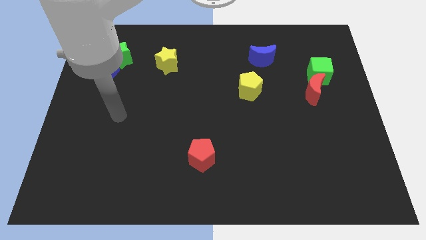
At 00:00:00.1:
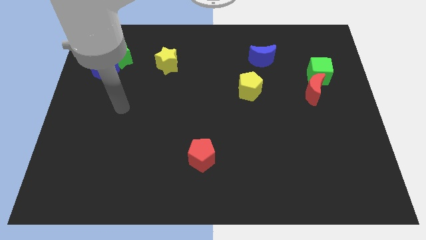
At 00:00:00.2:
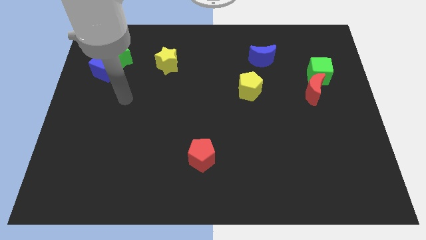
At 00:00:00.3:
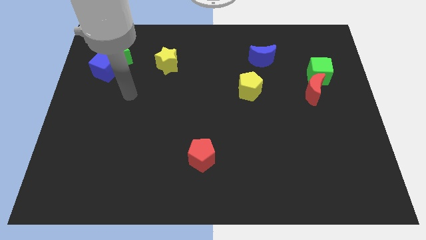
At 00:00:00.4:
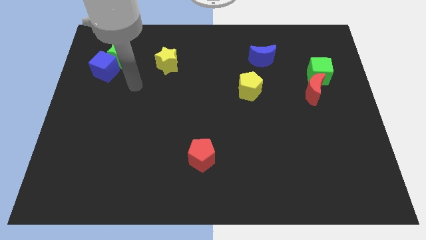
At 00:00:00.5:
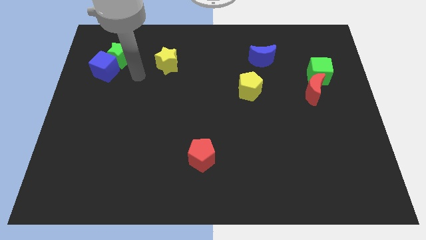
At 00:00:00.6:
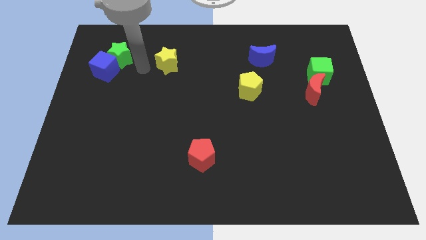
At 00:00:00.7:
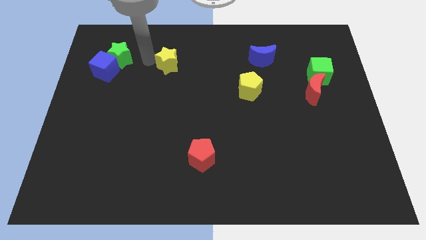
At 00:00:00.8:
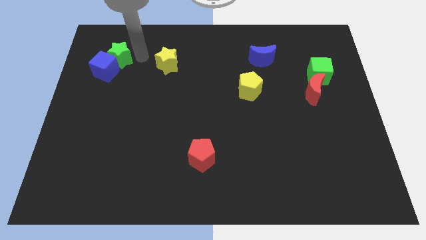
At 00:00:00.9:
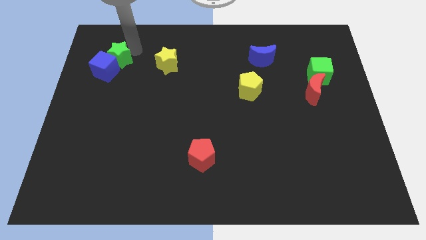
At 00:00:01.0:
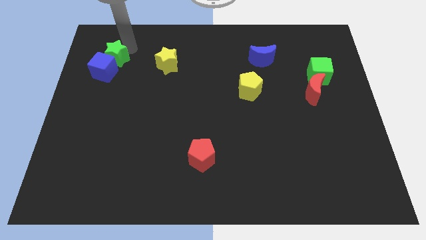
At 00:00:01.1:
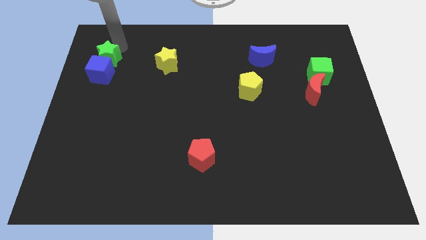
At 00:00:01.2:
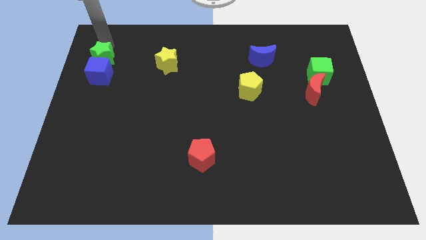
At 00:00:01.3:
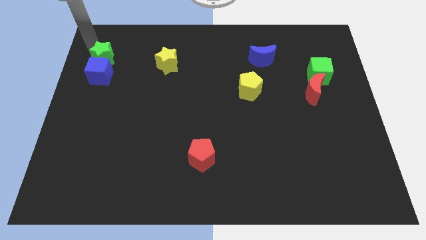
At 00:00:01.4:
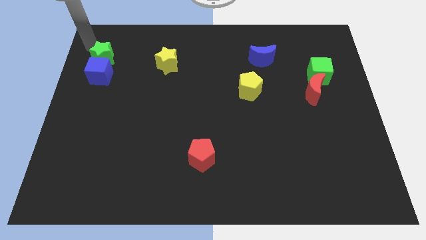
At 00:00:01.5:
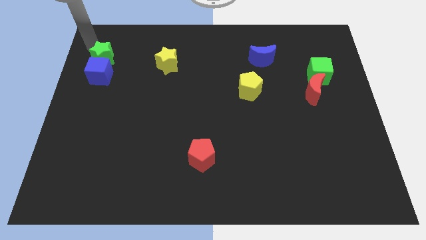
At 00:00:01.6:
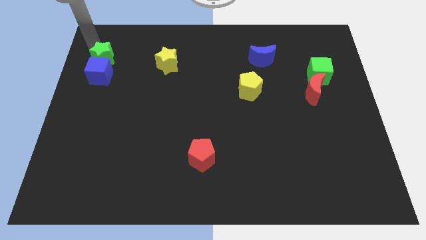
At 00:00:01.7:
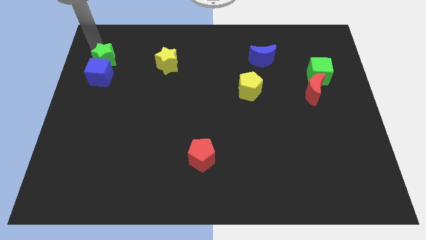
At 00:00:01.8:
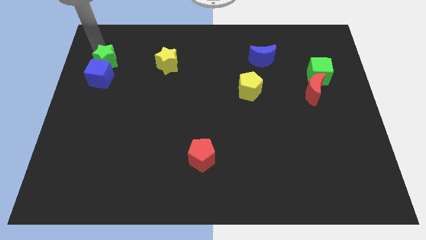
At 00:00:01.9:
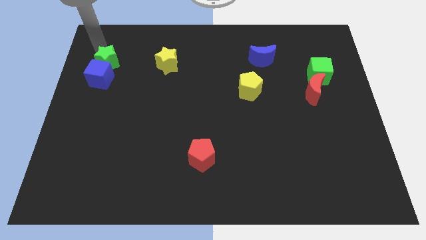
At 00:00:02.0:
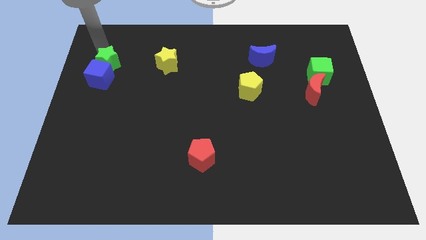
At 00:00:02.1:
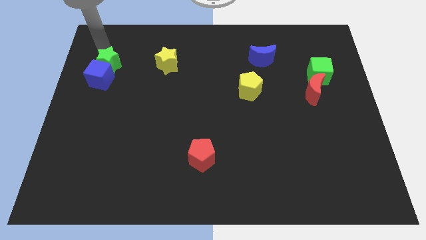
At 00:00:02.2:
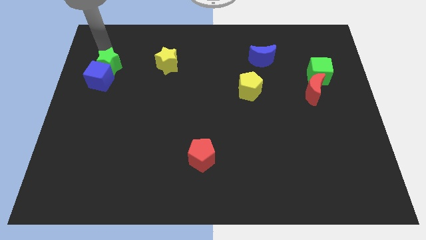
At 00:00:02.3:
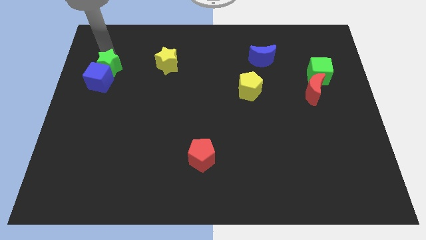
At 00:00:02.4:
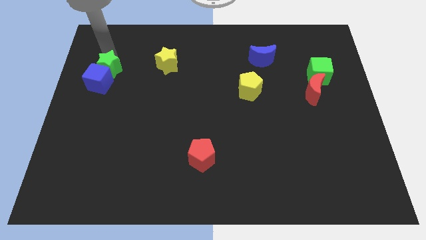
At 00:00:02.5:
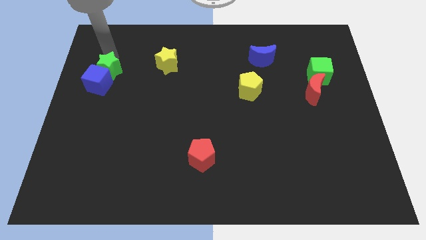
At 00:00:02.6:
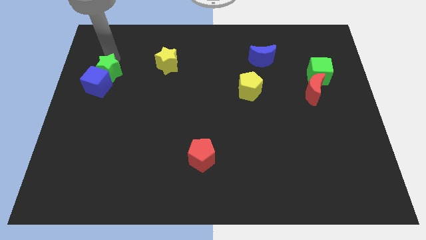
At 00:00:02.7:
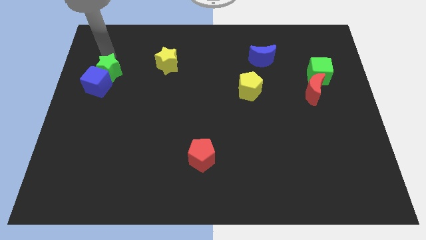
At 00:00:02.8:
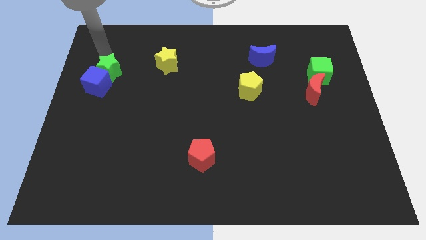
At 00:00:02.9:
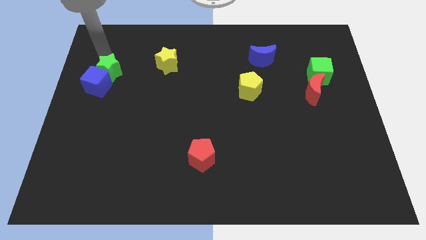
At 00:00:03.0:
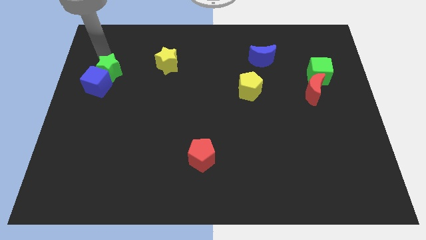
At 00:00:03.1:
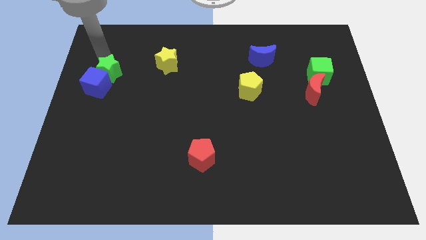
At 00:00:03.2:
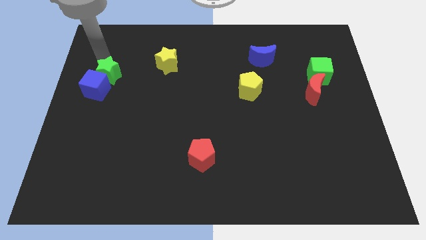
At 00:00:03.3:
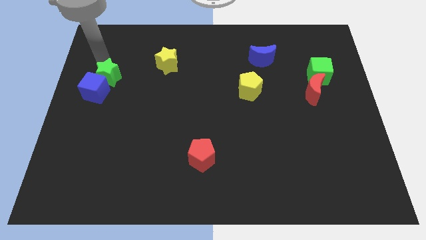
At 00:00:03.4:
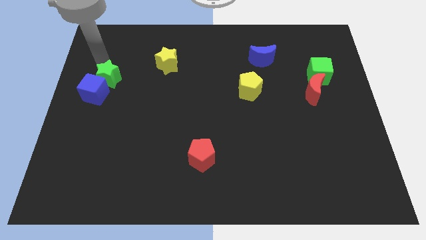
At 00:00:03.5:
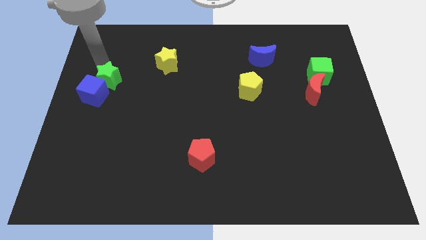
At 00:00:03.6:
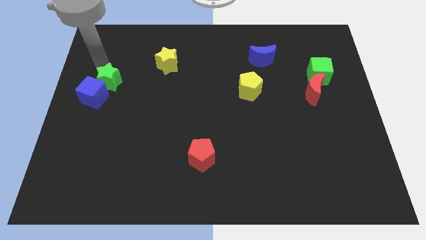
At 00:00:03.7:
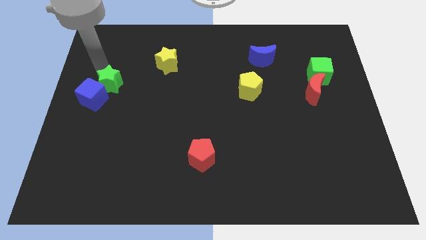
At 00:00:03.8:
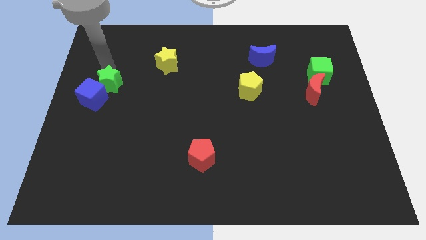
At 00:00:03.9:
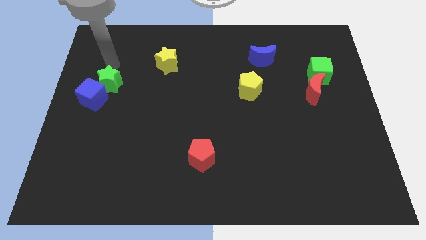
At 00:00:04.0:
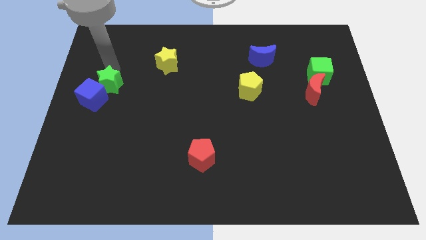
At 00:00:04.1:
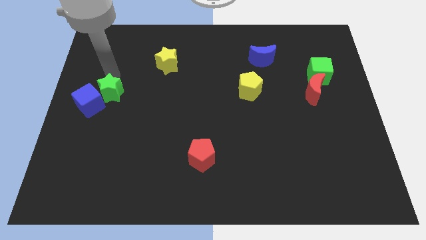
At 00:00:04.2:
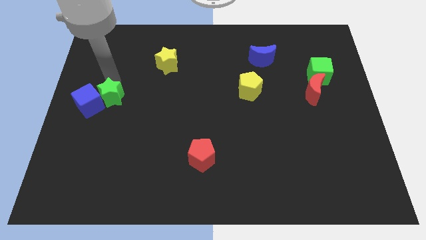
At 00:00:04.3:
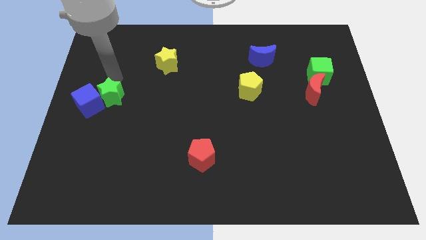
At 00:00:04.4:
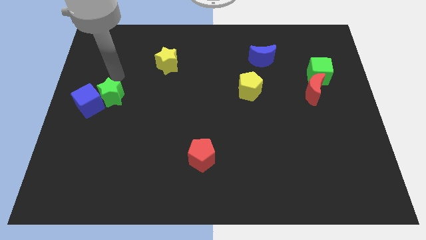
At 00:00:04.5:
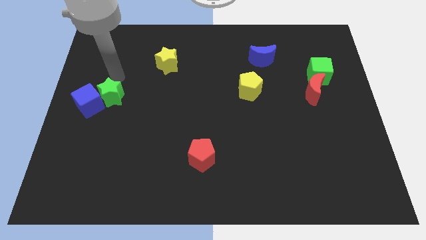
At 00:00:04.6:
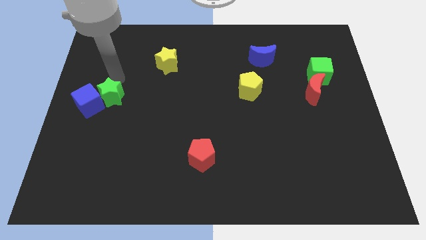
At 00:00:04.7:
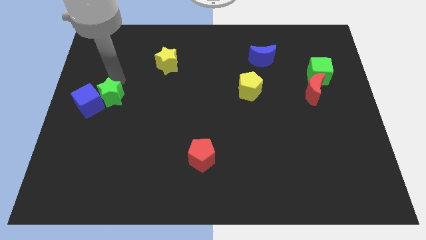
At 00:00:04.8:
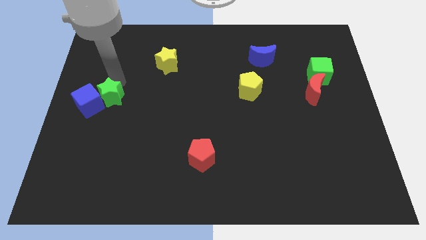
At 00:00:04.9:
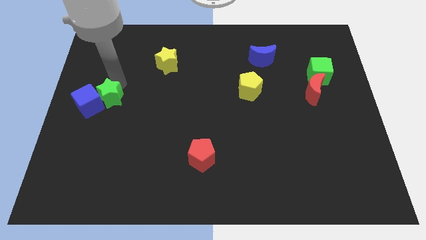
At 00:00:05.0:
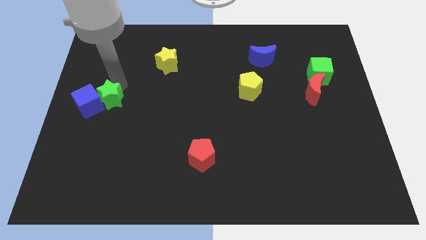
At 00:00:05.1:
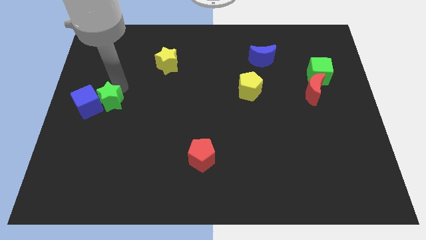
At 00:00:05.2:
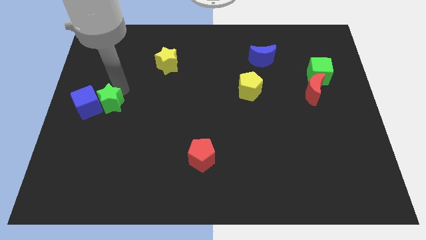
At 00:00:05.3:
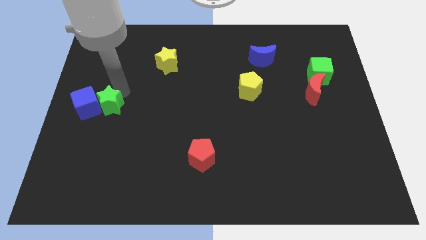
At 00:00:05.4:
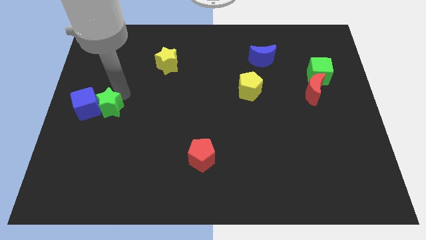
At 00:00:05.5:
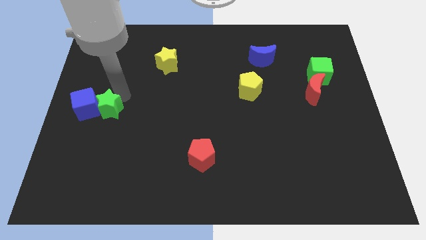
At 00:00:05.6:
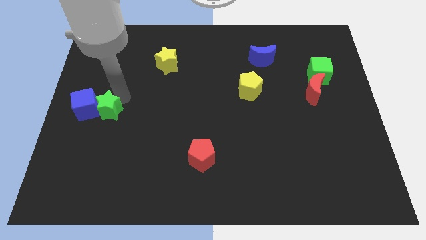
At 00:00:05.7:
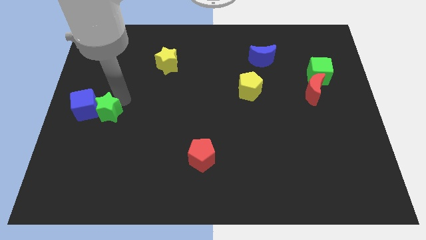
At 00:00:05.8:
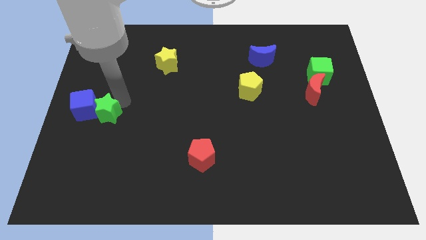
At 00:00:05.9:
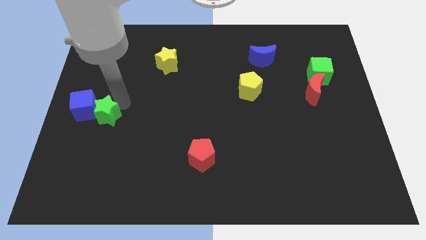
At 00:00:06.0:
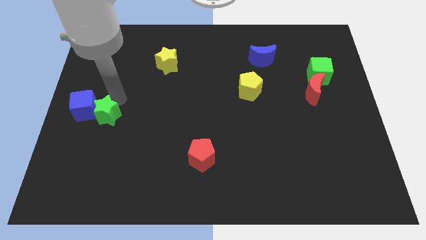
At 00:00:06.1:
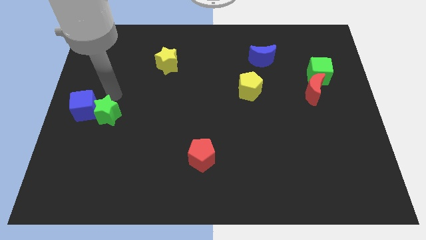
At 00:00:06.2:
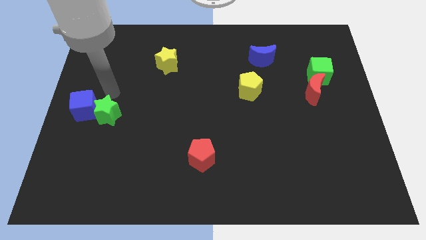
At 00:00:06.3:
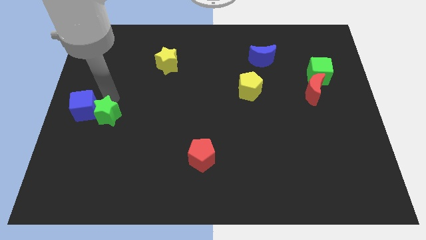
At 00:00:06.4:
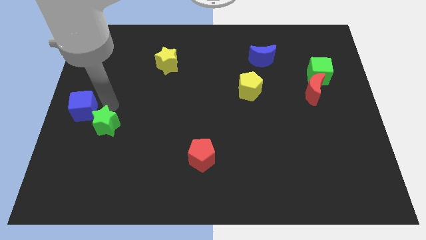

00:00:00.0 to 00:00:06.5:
push the green star down

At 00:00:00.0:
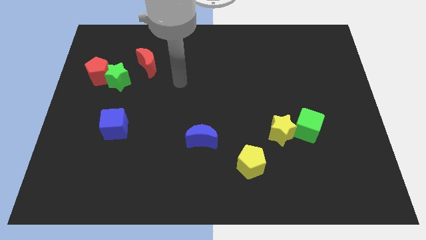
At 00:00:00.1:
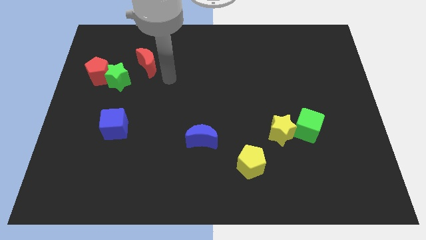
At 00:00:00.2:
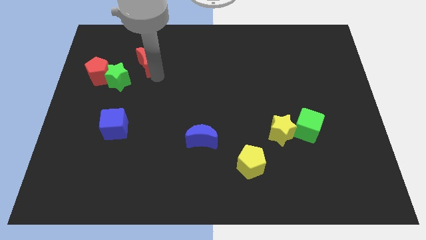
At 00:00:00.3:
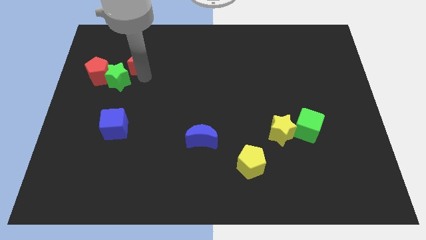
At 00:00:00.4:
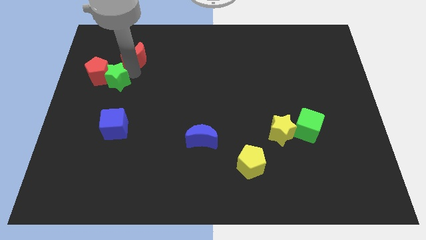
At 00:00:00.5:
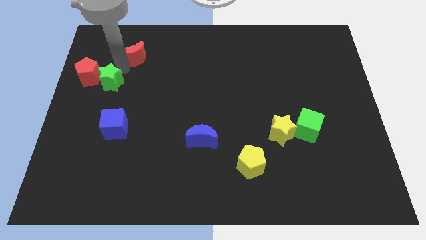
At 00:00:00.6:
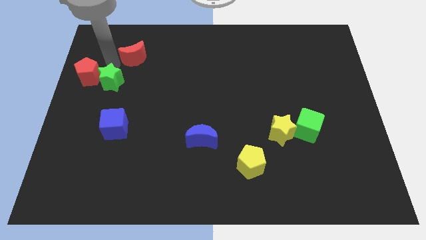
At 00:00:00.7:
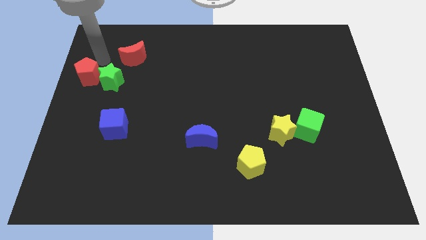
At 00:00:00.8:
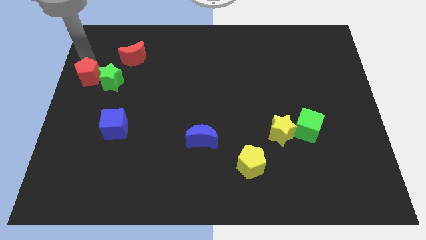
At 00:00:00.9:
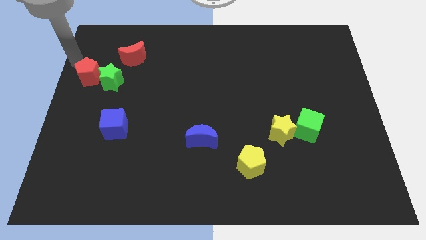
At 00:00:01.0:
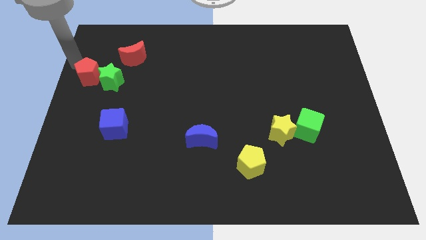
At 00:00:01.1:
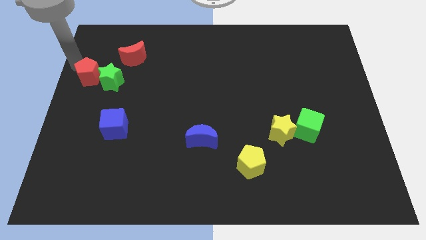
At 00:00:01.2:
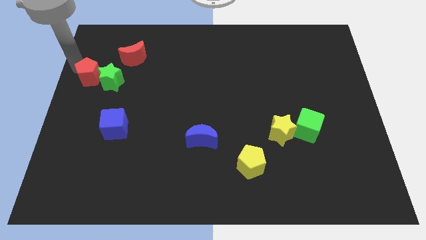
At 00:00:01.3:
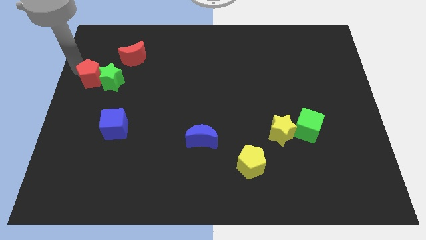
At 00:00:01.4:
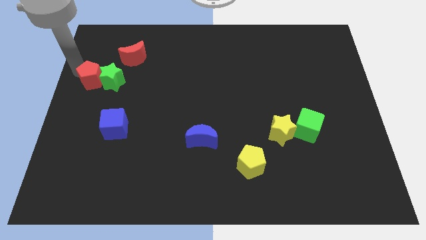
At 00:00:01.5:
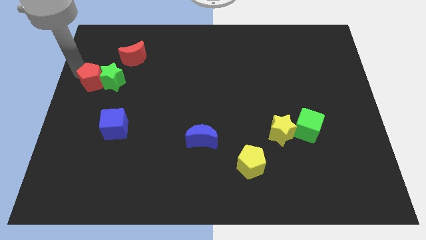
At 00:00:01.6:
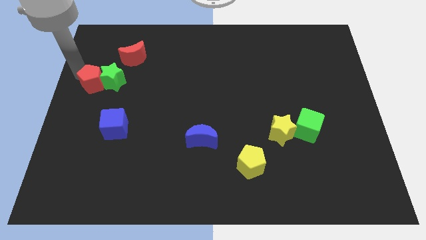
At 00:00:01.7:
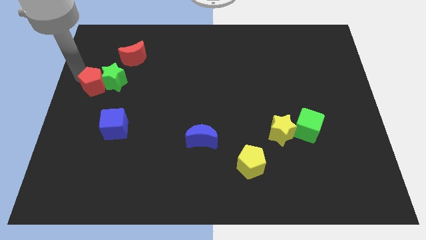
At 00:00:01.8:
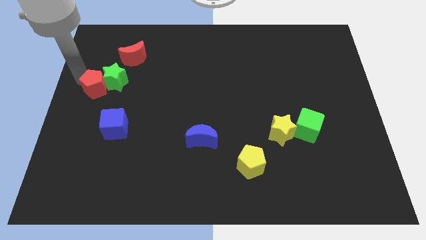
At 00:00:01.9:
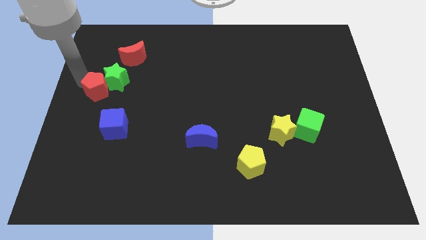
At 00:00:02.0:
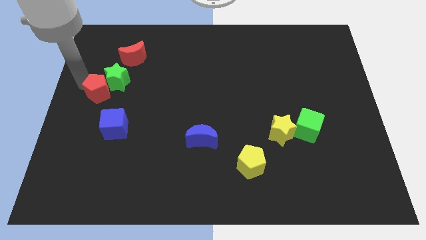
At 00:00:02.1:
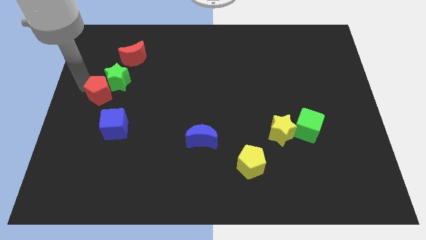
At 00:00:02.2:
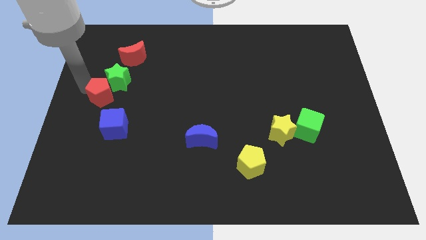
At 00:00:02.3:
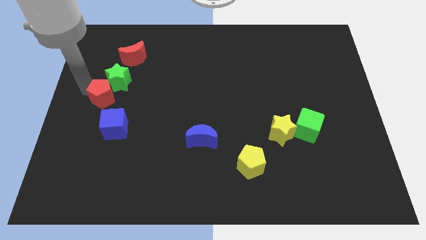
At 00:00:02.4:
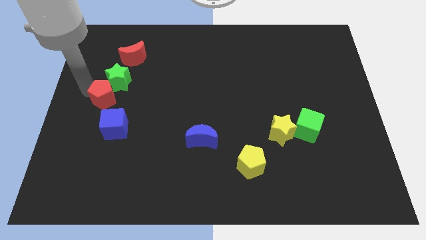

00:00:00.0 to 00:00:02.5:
push the red pentagon downwards and then to the right slightly
